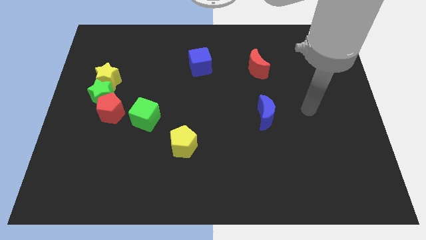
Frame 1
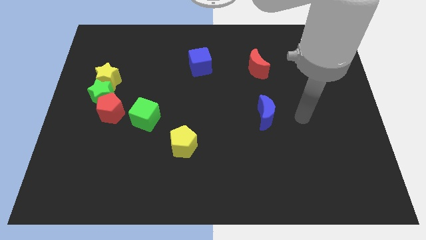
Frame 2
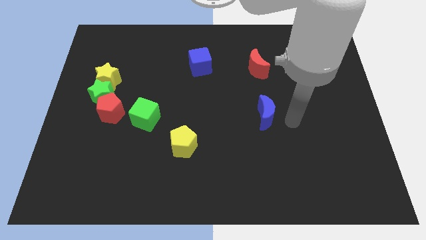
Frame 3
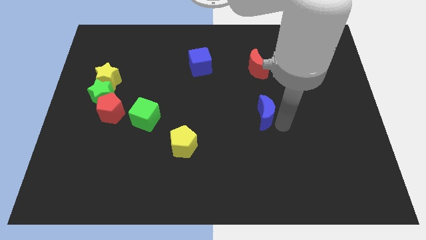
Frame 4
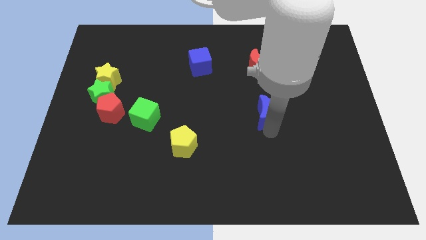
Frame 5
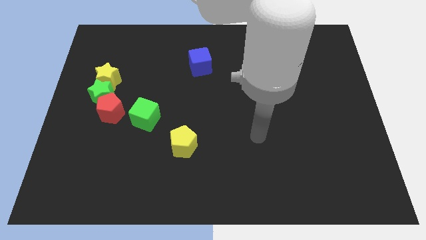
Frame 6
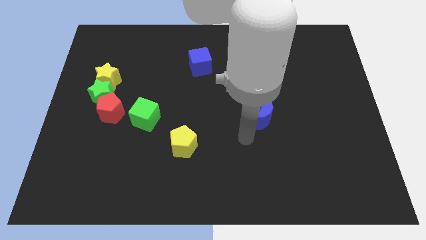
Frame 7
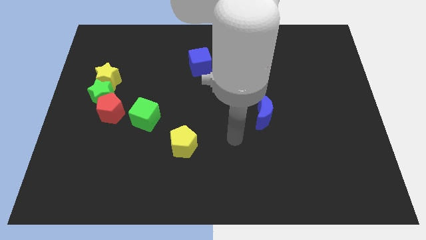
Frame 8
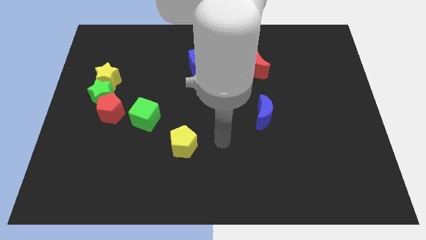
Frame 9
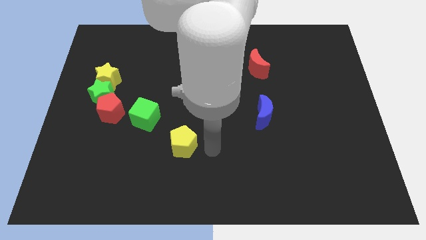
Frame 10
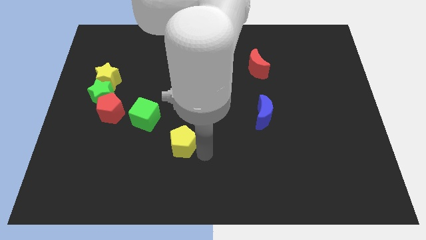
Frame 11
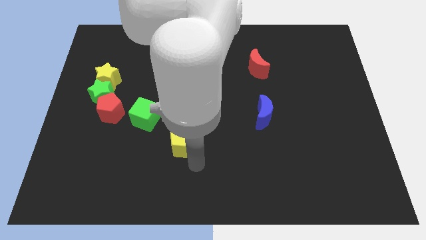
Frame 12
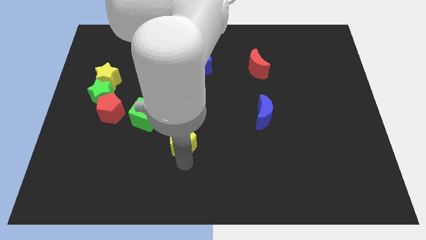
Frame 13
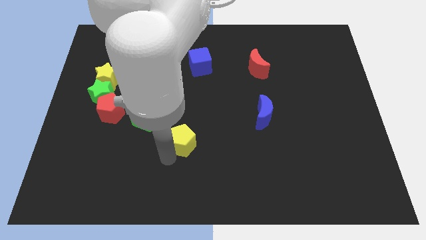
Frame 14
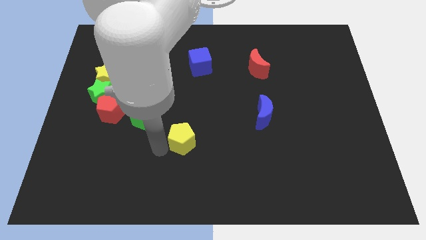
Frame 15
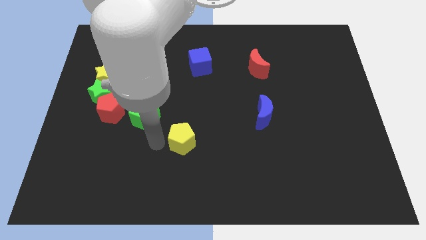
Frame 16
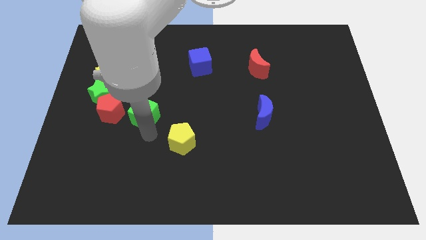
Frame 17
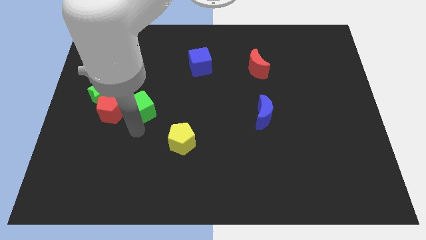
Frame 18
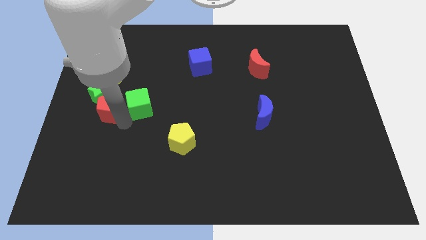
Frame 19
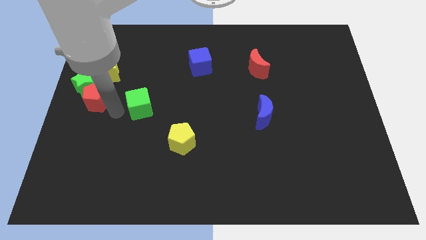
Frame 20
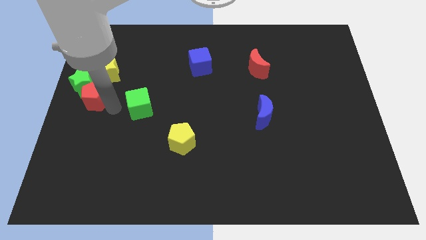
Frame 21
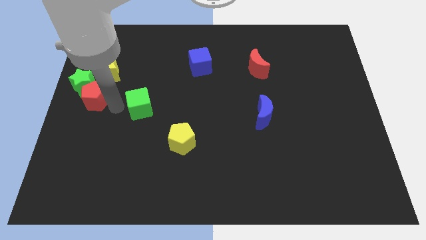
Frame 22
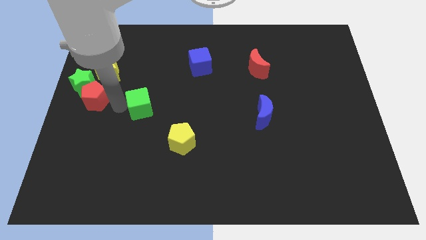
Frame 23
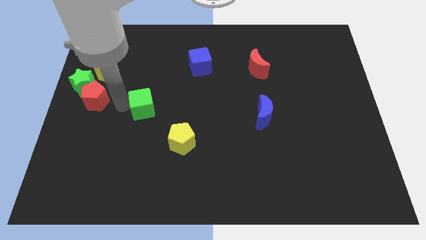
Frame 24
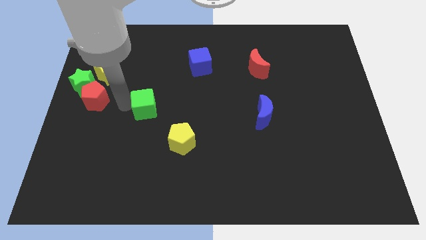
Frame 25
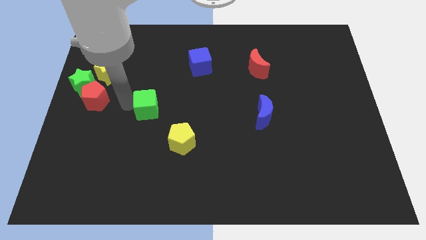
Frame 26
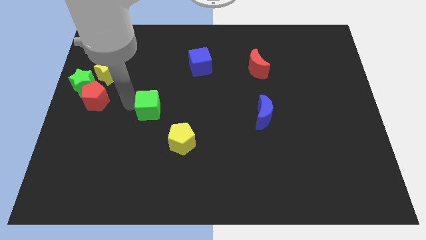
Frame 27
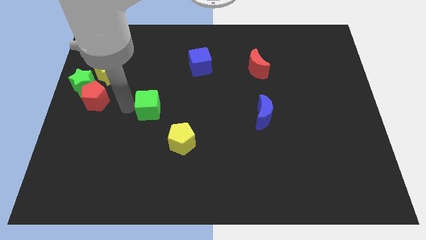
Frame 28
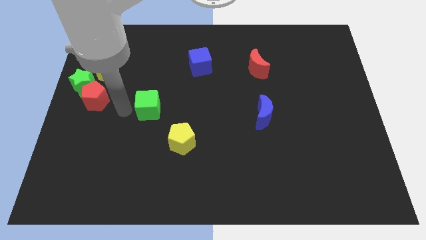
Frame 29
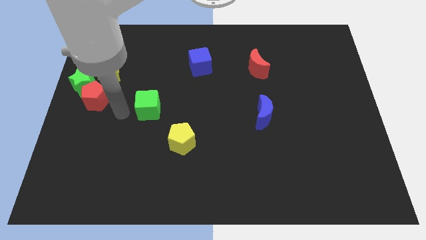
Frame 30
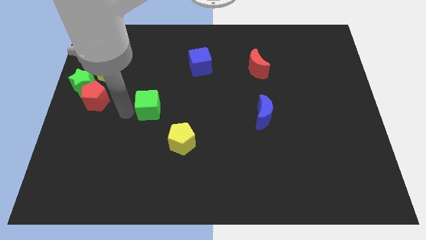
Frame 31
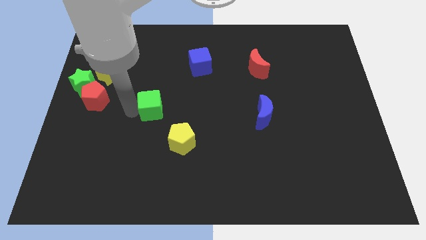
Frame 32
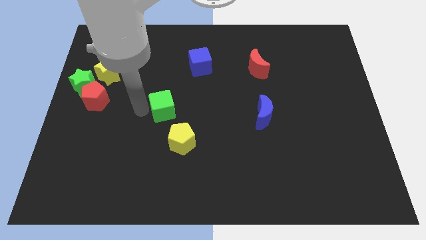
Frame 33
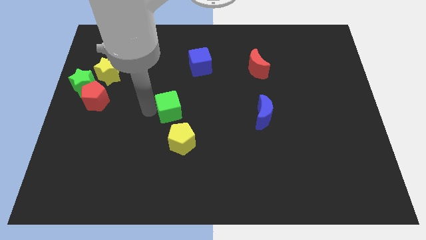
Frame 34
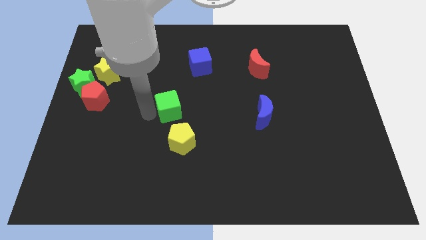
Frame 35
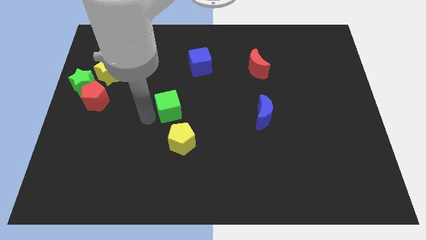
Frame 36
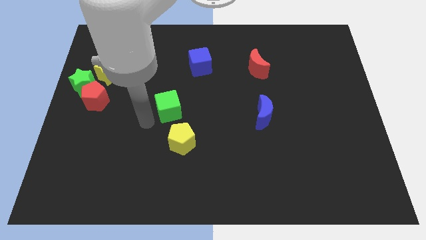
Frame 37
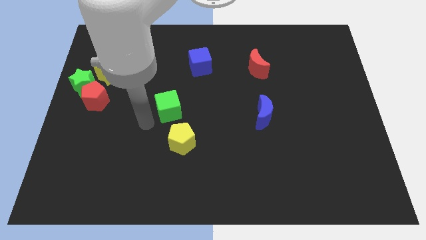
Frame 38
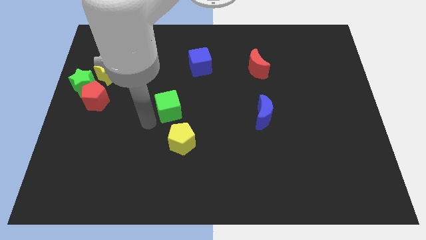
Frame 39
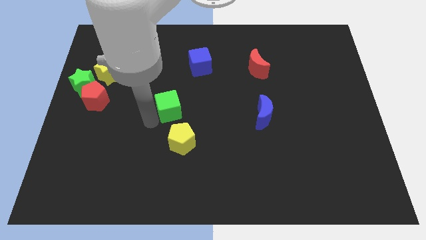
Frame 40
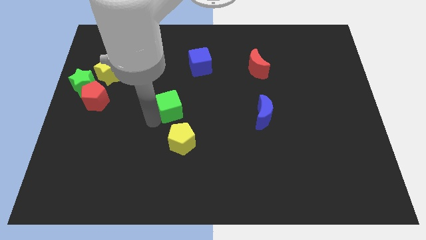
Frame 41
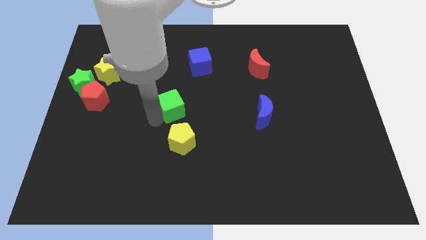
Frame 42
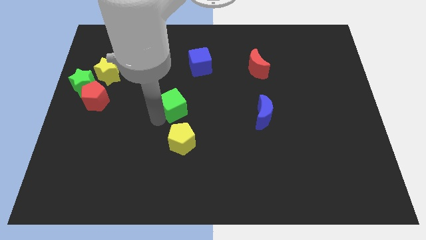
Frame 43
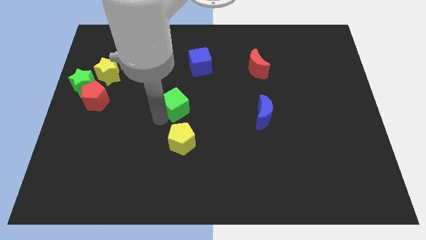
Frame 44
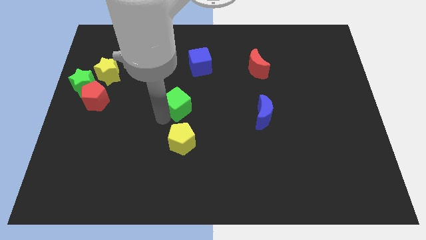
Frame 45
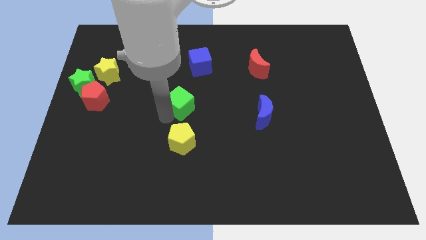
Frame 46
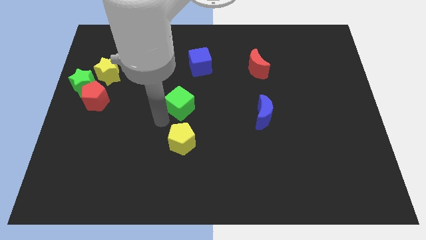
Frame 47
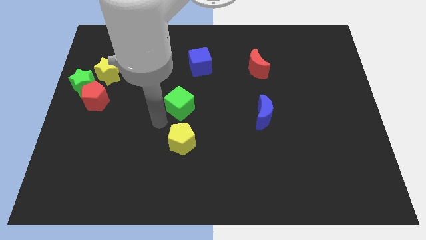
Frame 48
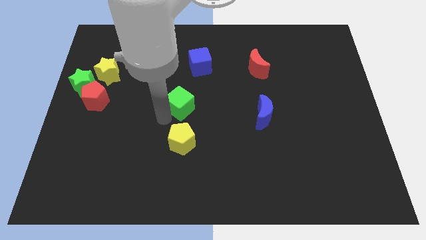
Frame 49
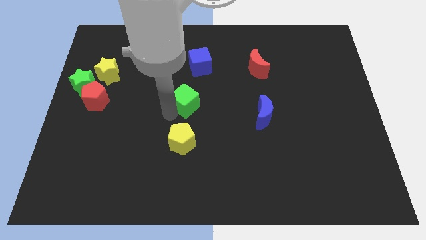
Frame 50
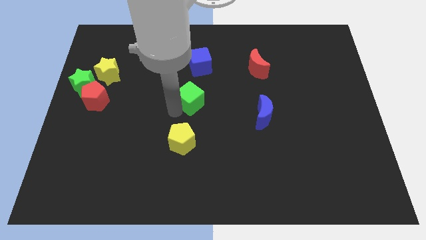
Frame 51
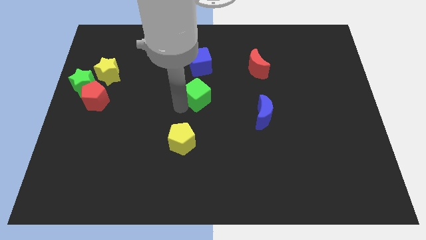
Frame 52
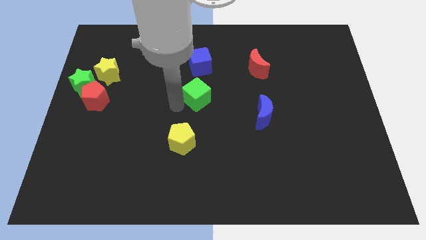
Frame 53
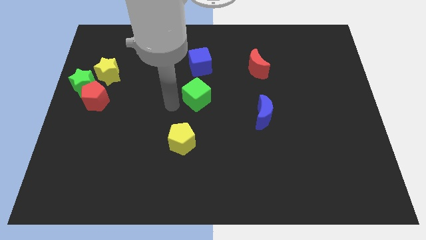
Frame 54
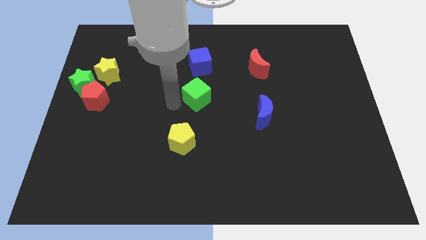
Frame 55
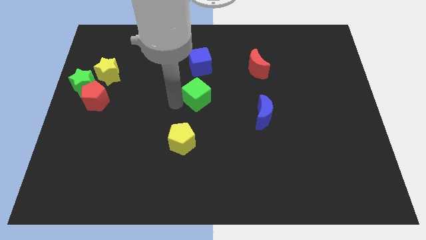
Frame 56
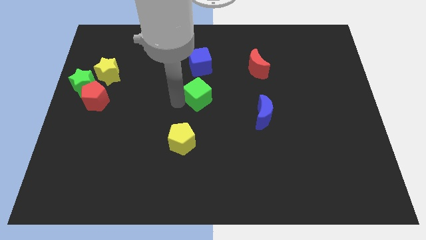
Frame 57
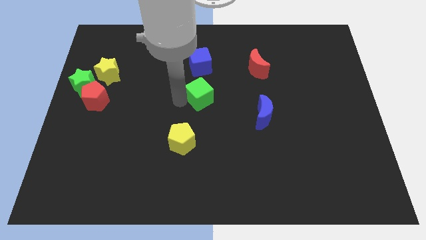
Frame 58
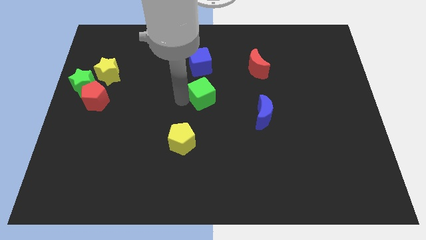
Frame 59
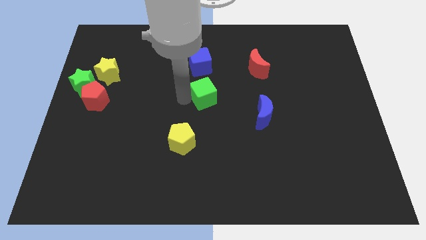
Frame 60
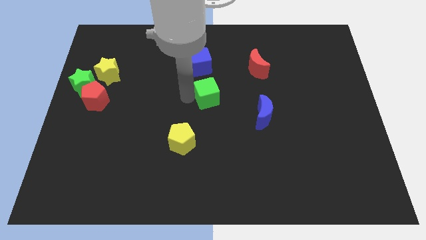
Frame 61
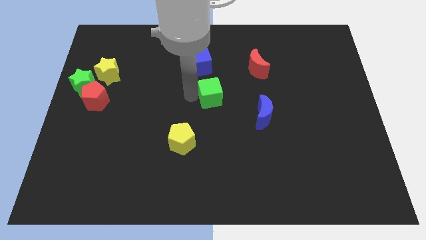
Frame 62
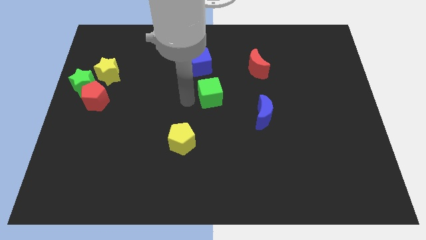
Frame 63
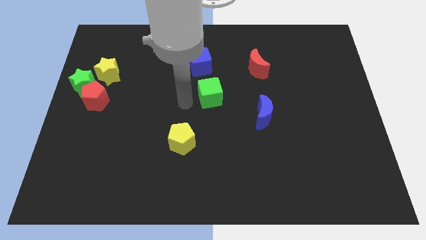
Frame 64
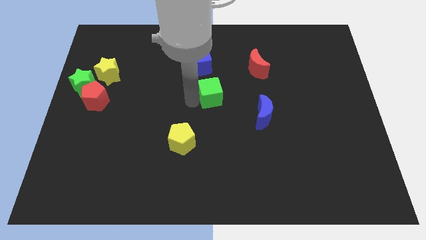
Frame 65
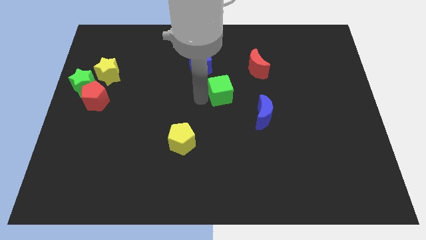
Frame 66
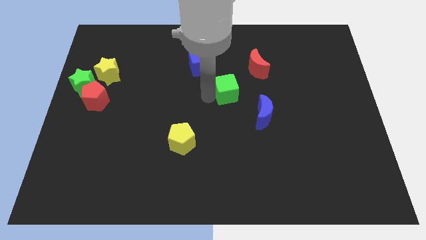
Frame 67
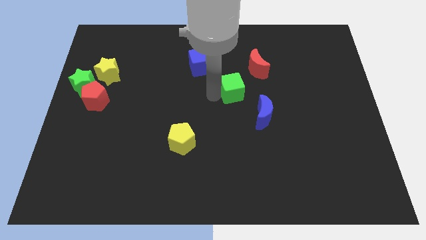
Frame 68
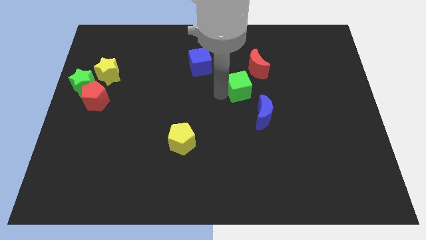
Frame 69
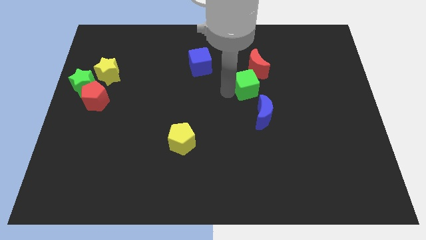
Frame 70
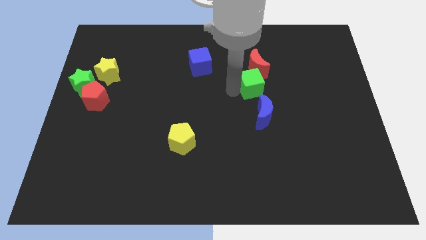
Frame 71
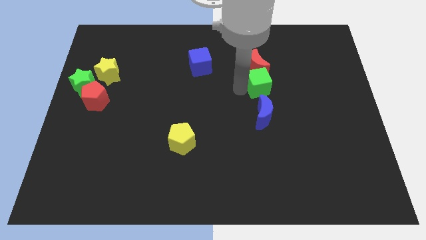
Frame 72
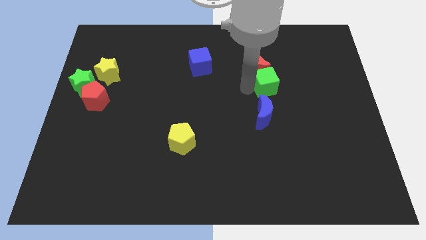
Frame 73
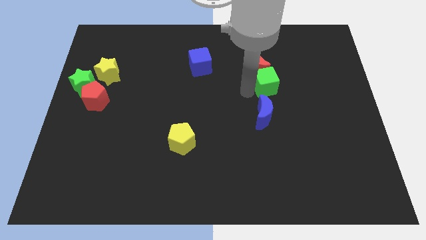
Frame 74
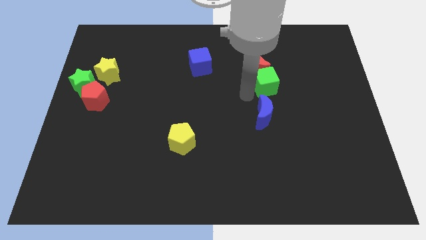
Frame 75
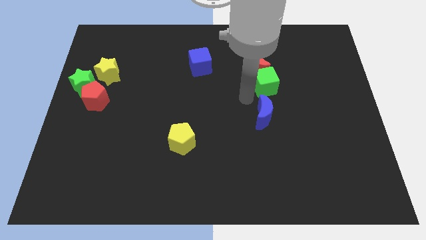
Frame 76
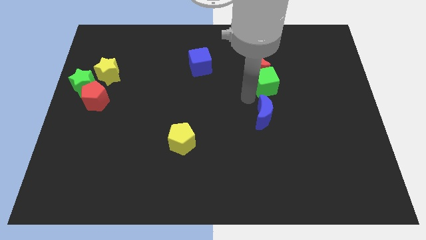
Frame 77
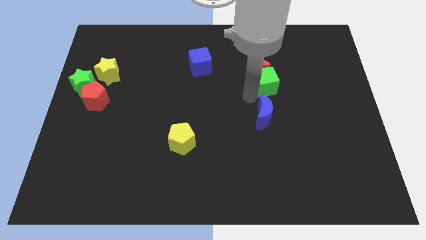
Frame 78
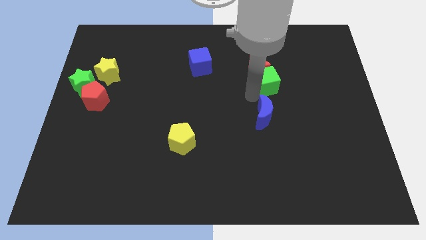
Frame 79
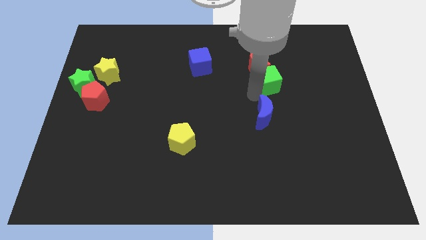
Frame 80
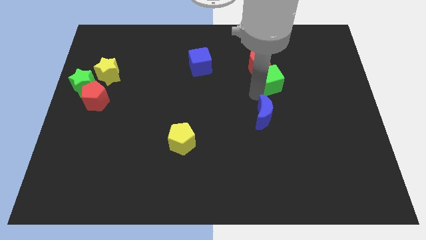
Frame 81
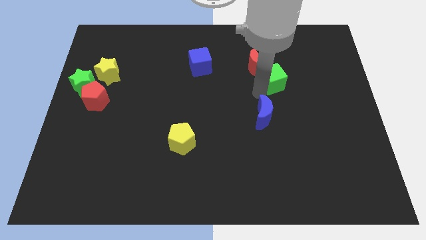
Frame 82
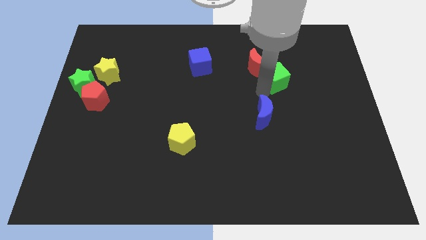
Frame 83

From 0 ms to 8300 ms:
push the green cube to the right of the red moon
